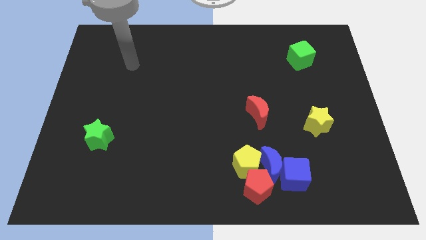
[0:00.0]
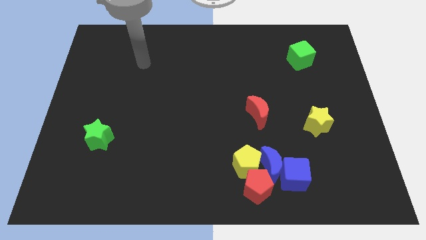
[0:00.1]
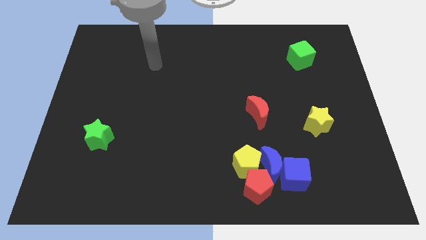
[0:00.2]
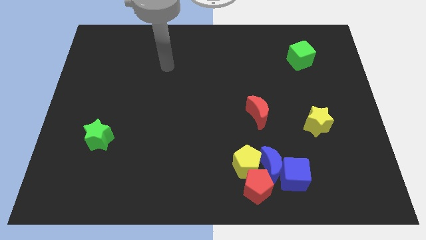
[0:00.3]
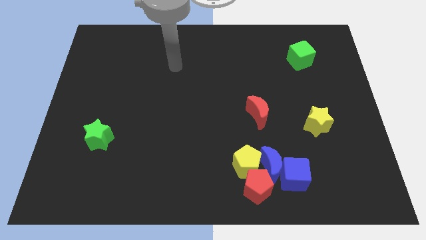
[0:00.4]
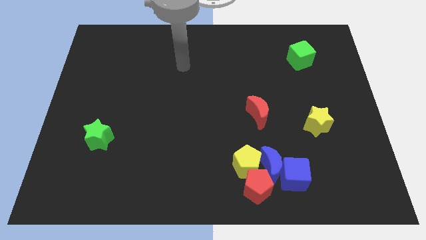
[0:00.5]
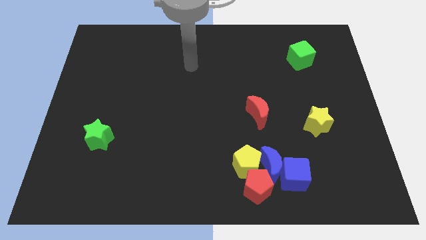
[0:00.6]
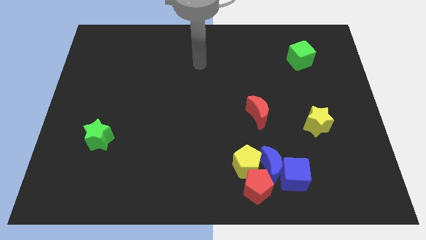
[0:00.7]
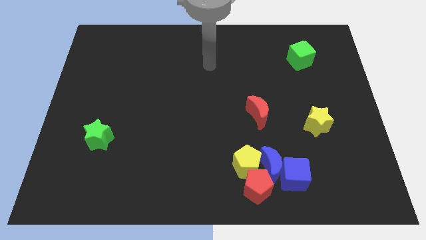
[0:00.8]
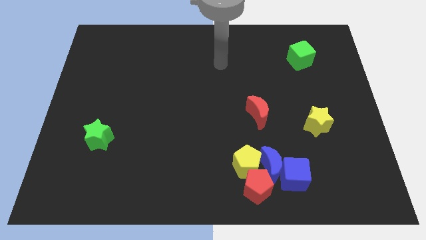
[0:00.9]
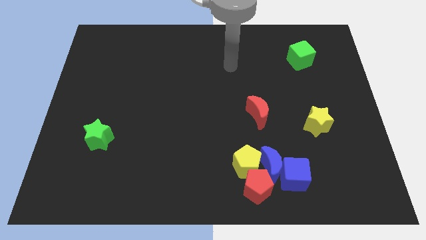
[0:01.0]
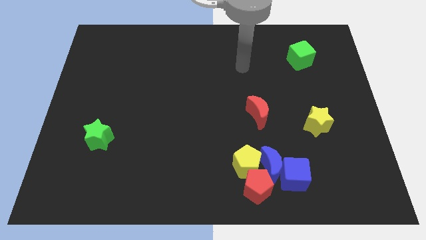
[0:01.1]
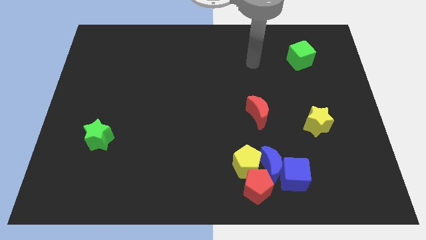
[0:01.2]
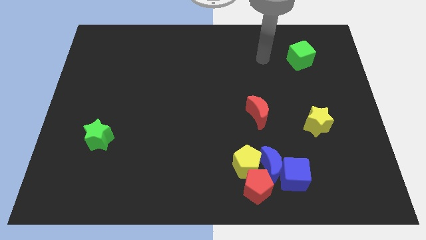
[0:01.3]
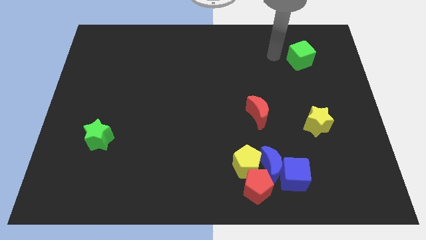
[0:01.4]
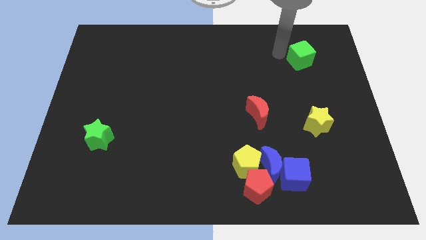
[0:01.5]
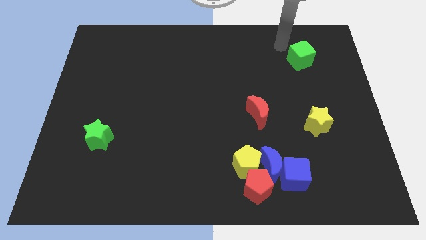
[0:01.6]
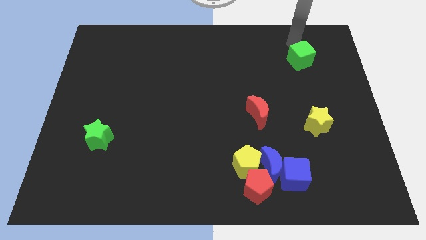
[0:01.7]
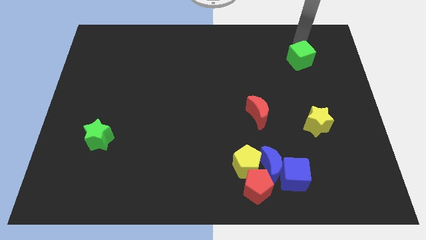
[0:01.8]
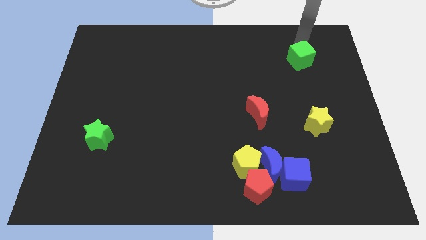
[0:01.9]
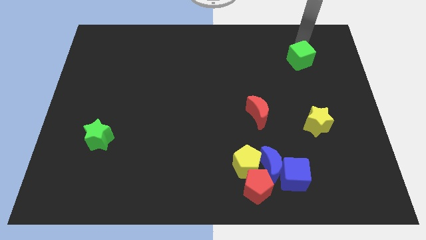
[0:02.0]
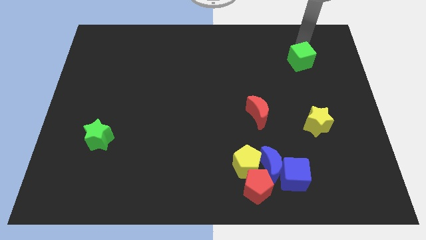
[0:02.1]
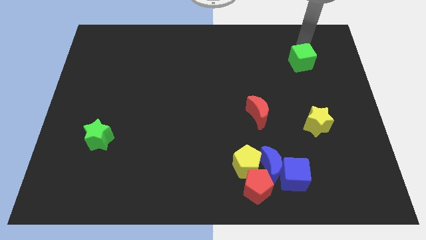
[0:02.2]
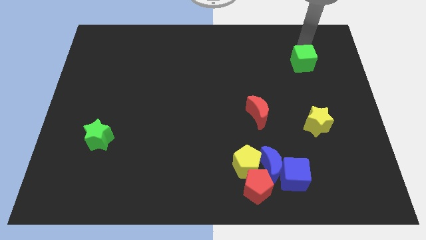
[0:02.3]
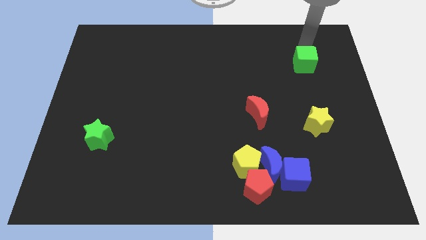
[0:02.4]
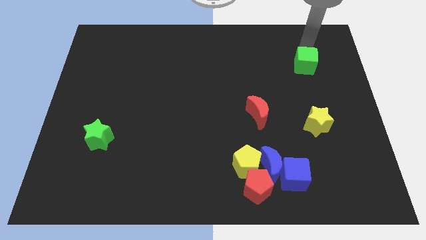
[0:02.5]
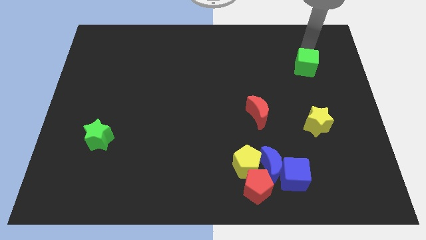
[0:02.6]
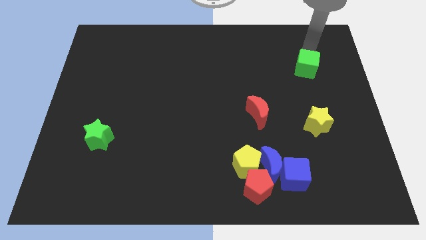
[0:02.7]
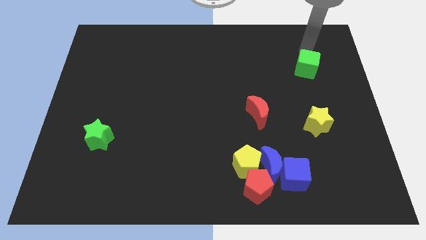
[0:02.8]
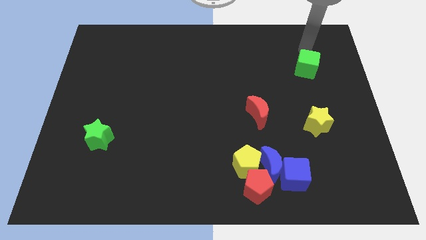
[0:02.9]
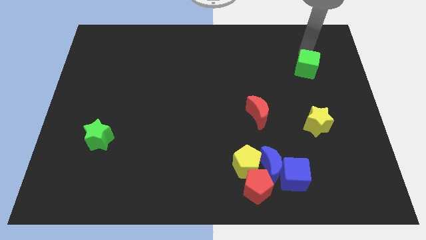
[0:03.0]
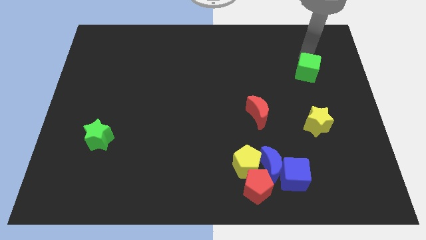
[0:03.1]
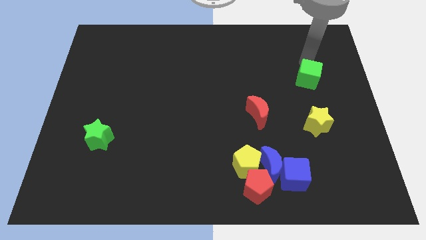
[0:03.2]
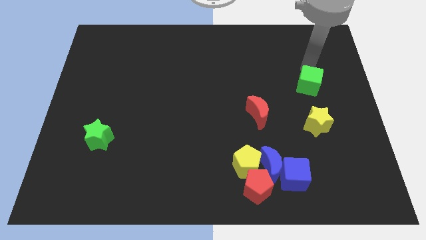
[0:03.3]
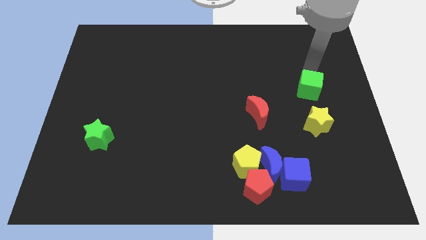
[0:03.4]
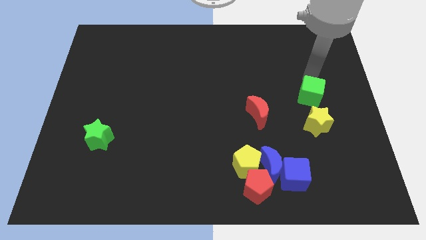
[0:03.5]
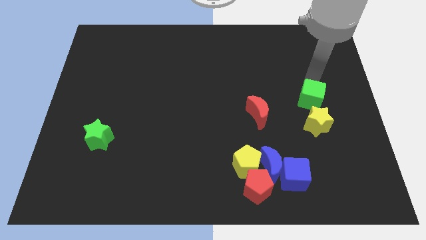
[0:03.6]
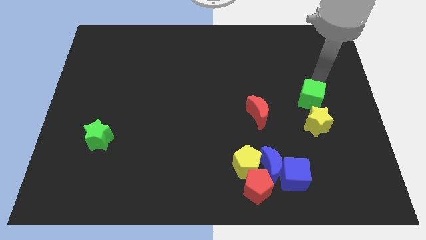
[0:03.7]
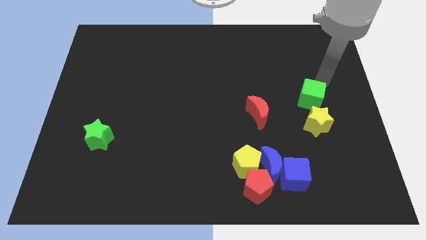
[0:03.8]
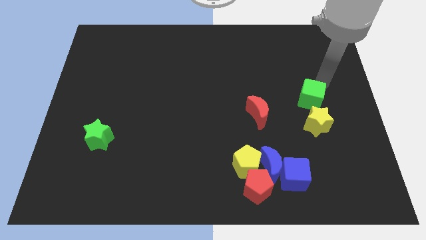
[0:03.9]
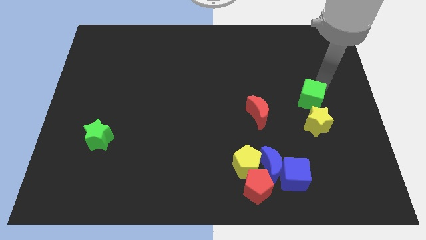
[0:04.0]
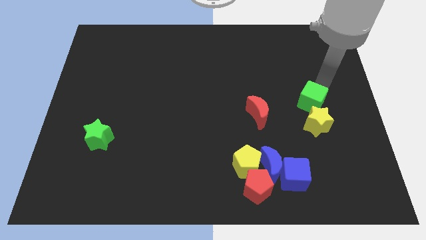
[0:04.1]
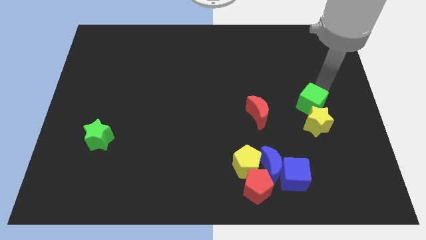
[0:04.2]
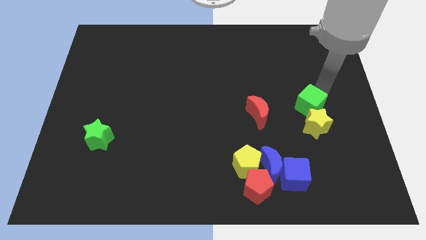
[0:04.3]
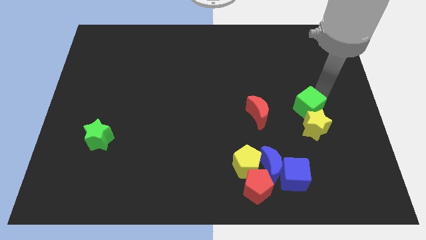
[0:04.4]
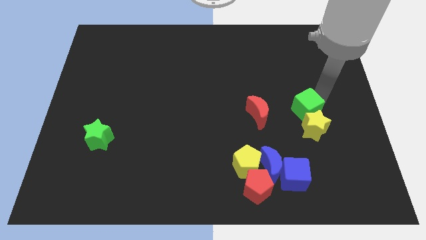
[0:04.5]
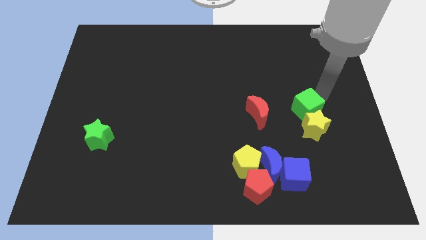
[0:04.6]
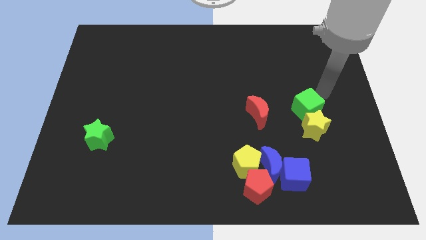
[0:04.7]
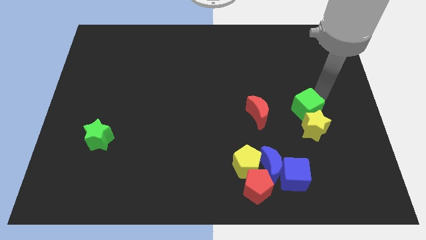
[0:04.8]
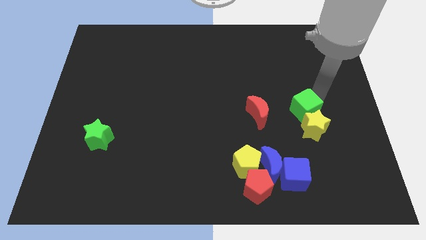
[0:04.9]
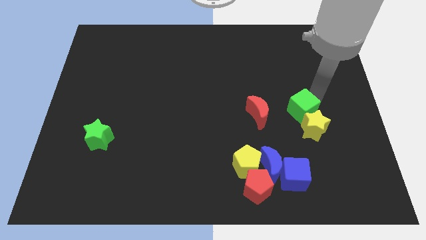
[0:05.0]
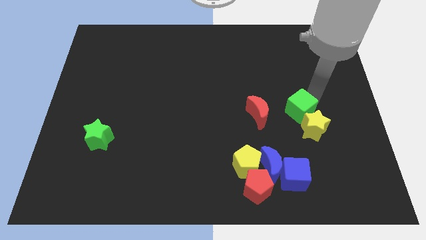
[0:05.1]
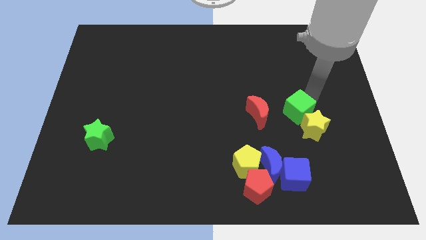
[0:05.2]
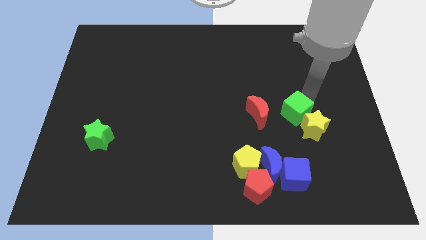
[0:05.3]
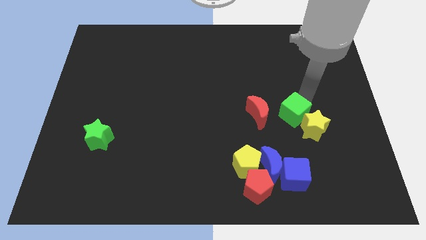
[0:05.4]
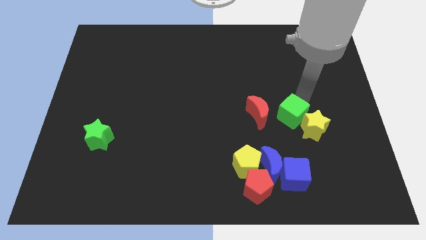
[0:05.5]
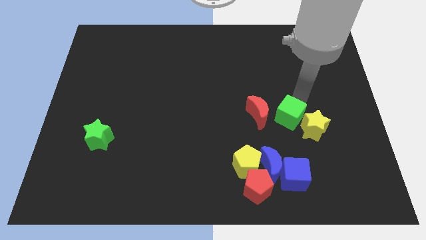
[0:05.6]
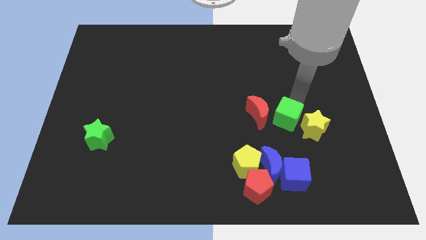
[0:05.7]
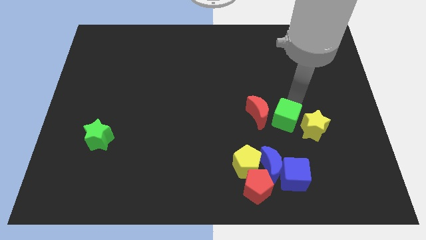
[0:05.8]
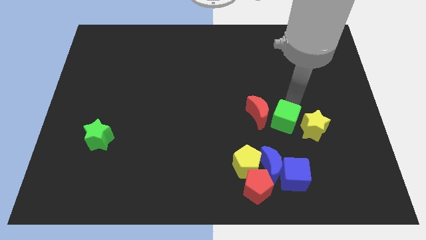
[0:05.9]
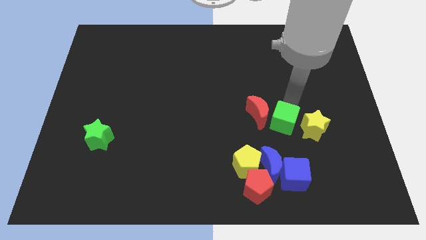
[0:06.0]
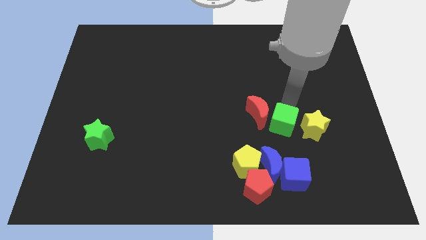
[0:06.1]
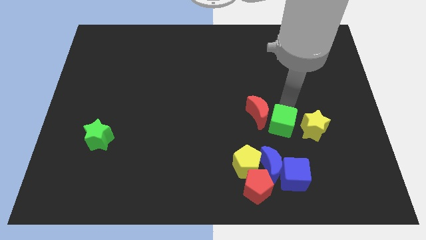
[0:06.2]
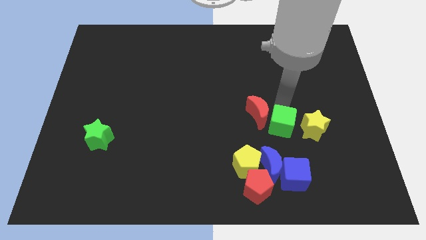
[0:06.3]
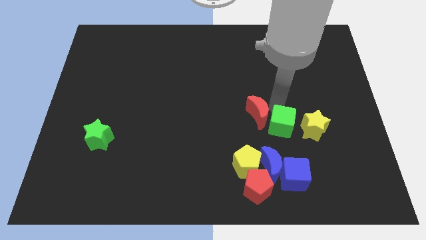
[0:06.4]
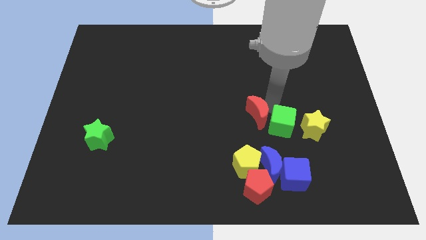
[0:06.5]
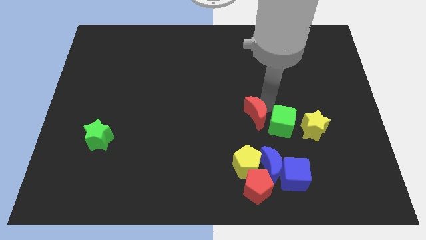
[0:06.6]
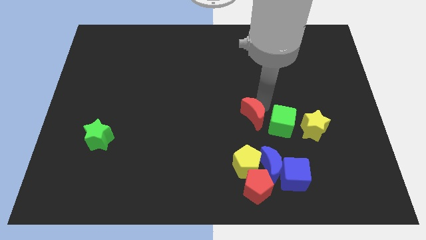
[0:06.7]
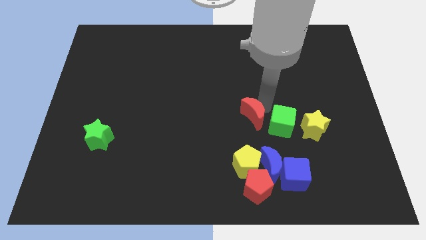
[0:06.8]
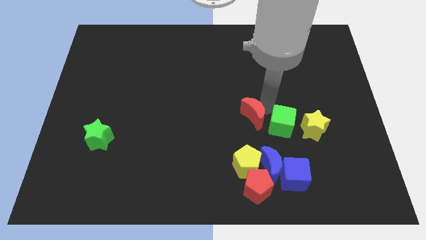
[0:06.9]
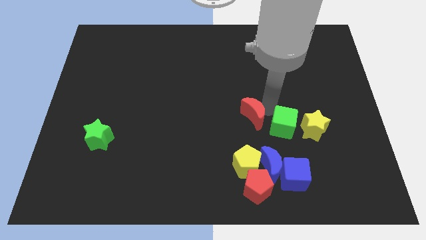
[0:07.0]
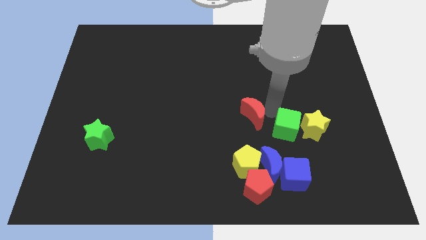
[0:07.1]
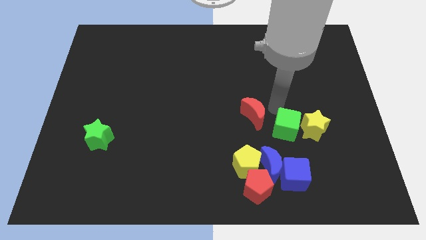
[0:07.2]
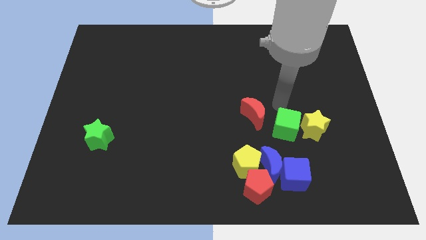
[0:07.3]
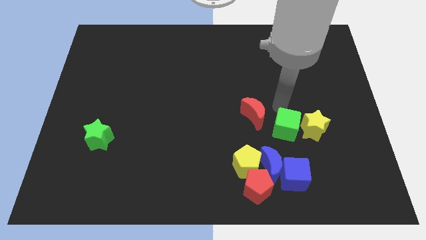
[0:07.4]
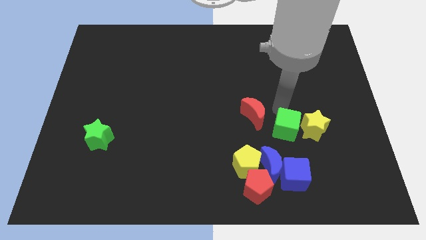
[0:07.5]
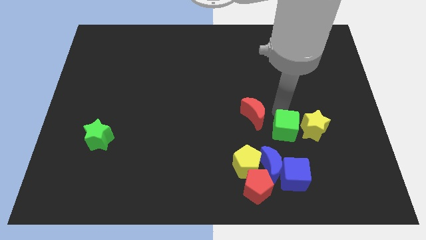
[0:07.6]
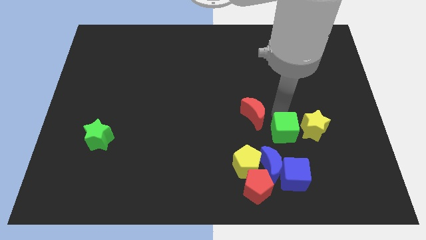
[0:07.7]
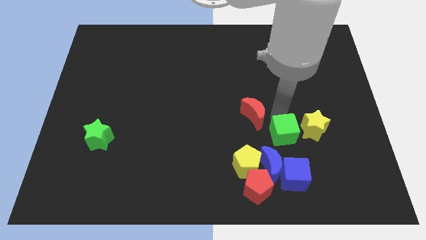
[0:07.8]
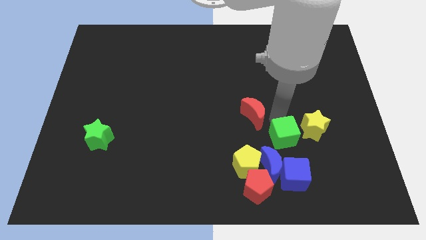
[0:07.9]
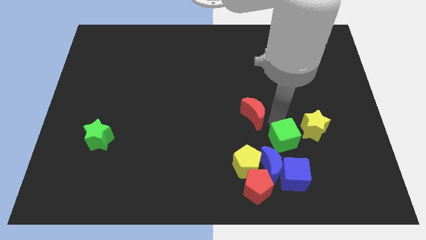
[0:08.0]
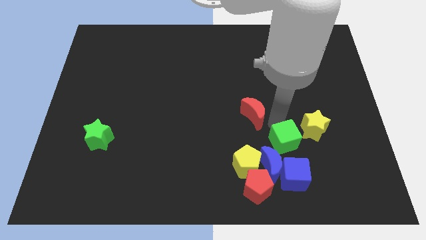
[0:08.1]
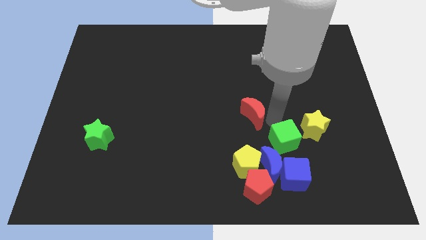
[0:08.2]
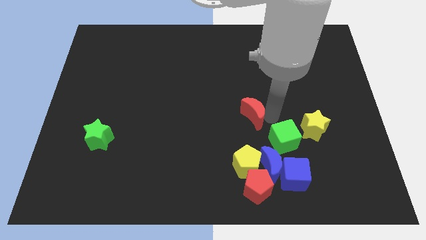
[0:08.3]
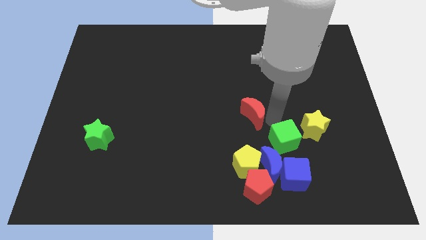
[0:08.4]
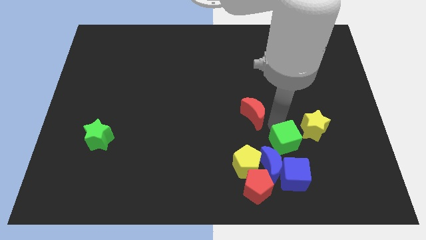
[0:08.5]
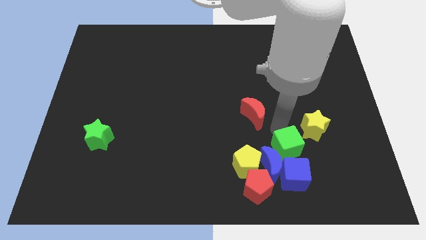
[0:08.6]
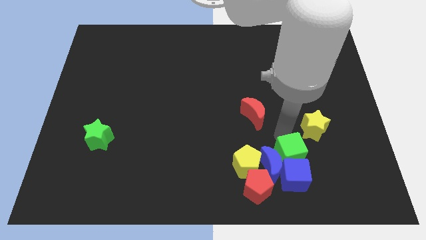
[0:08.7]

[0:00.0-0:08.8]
push the green cube towards the blue cube
